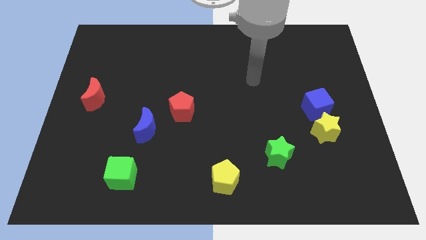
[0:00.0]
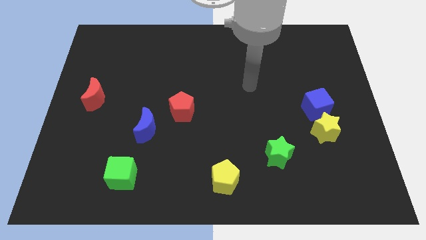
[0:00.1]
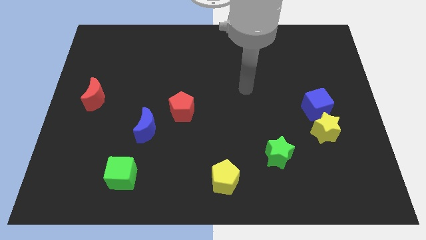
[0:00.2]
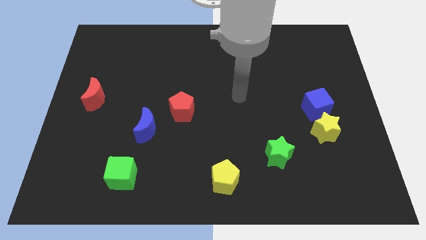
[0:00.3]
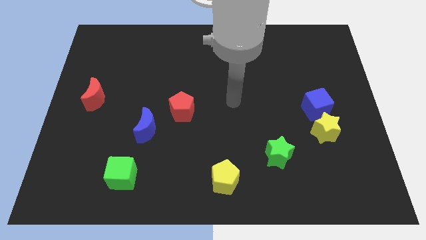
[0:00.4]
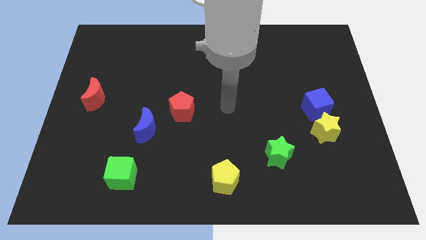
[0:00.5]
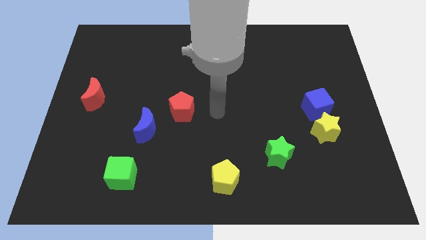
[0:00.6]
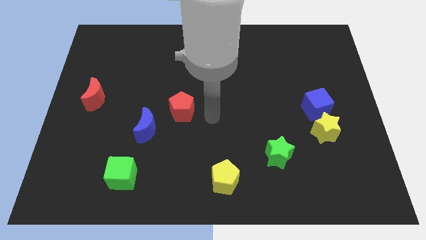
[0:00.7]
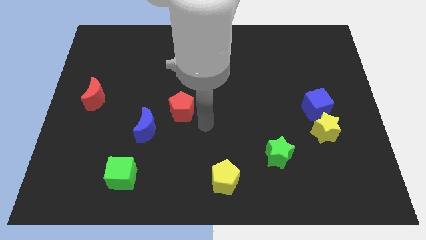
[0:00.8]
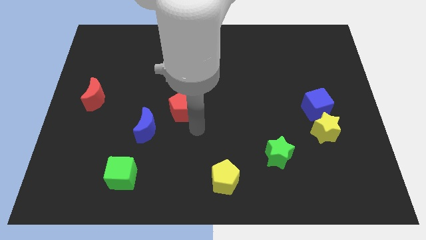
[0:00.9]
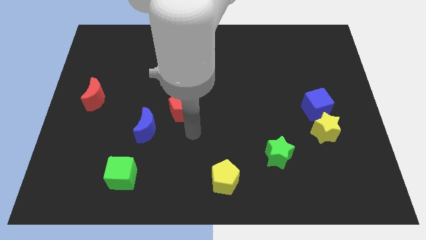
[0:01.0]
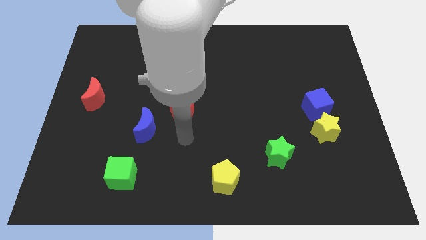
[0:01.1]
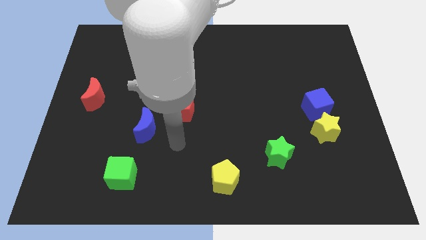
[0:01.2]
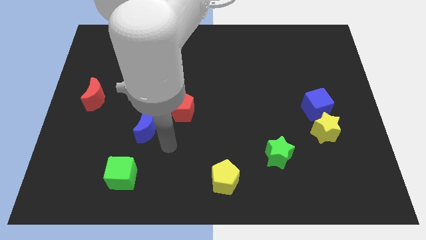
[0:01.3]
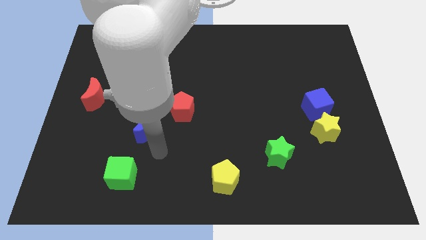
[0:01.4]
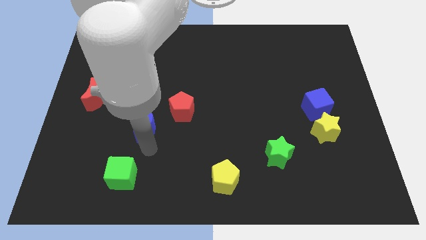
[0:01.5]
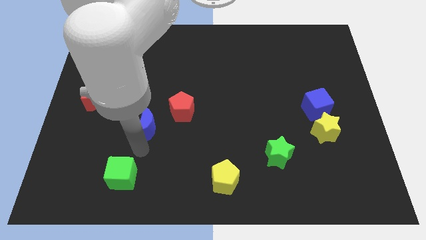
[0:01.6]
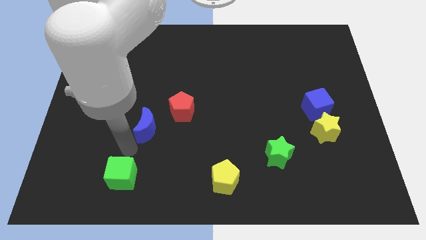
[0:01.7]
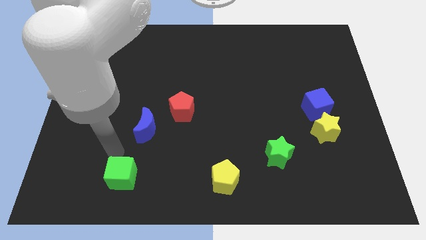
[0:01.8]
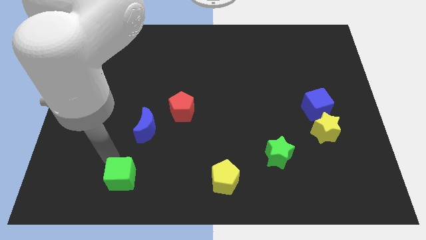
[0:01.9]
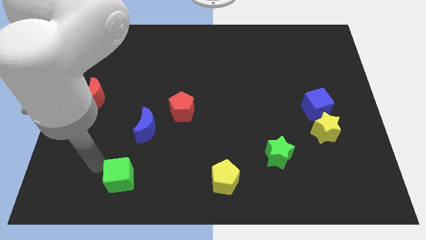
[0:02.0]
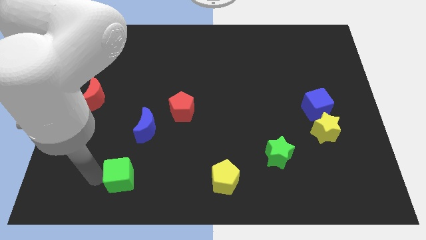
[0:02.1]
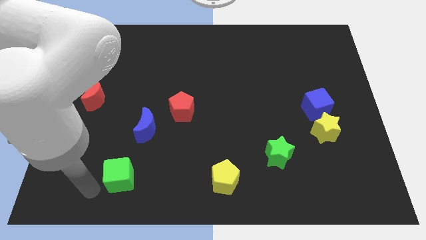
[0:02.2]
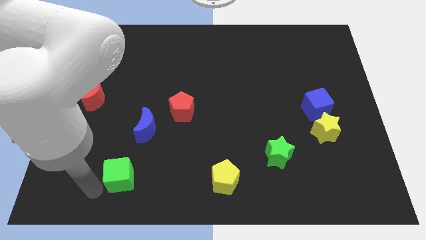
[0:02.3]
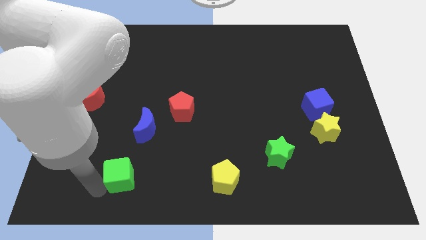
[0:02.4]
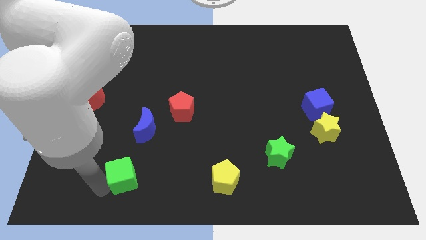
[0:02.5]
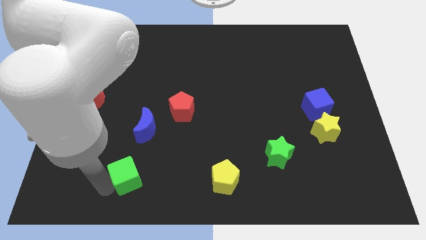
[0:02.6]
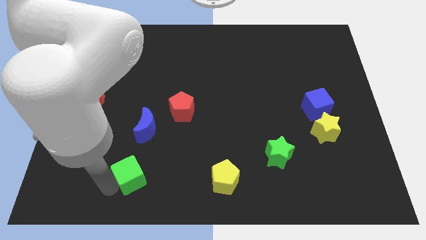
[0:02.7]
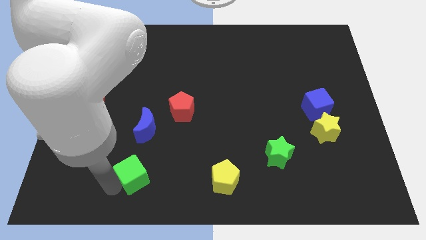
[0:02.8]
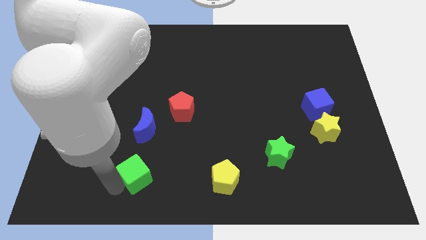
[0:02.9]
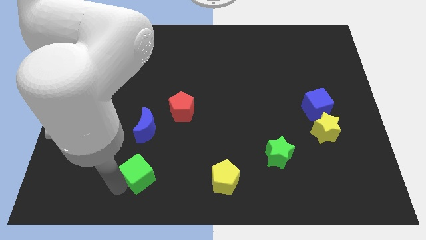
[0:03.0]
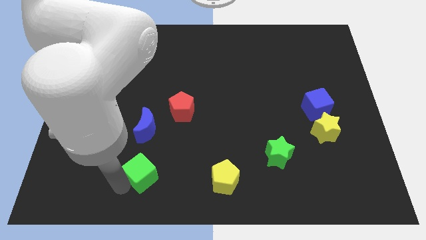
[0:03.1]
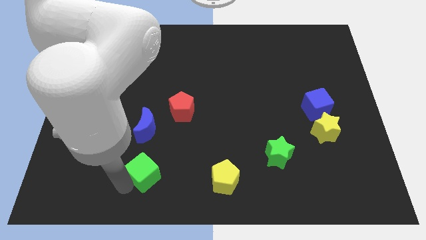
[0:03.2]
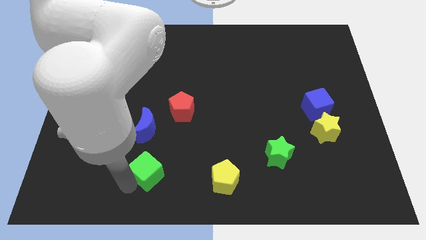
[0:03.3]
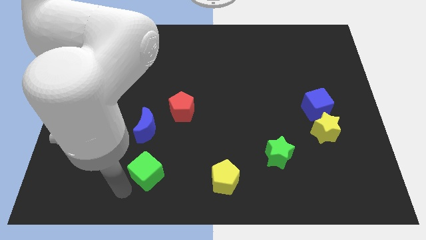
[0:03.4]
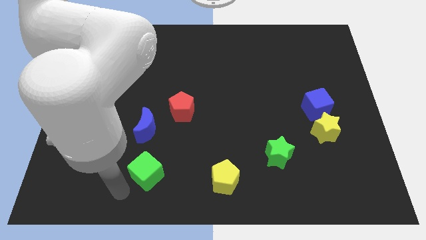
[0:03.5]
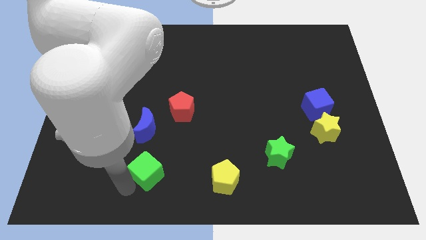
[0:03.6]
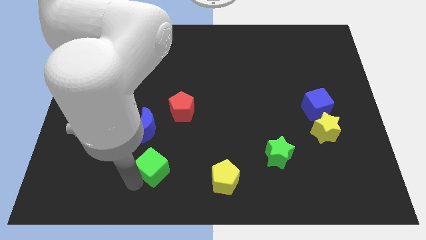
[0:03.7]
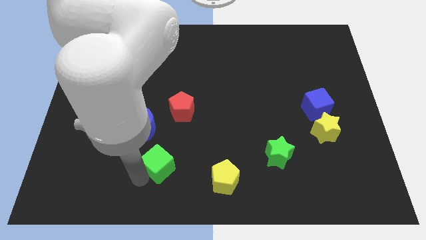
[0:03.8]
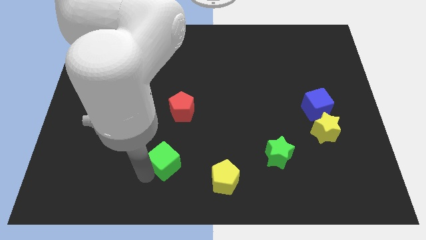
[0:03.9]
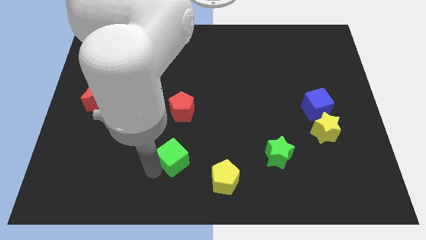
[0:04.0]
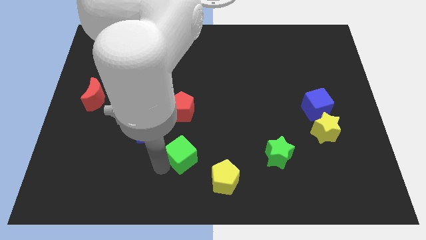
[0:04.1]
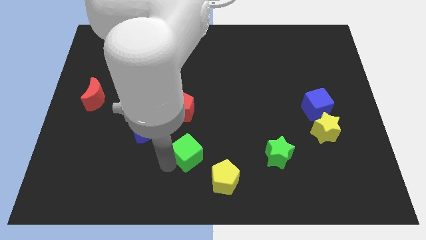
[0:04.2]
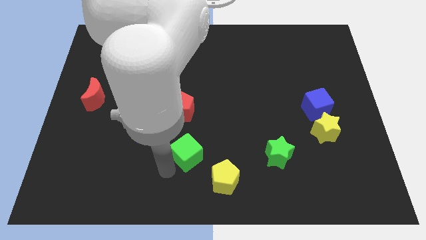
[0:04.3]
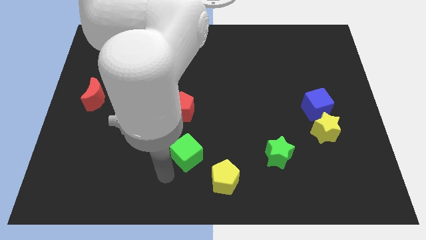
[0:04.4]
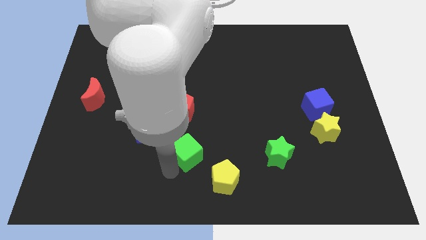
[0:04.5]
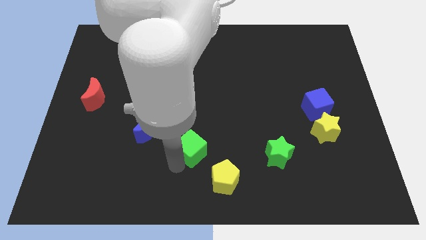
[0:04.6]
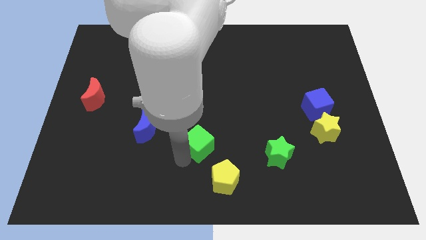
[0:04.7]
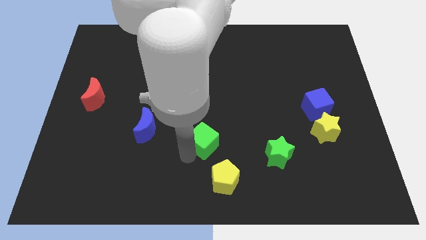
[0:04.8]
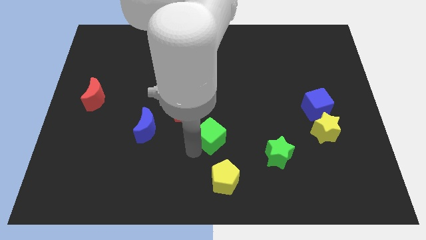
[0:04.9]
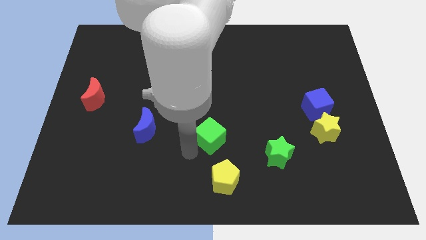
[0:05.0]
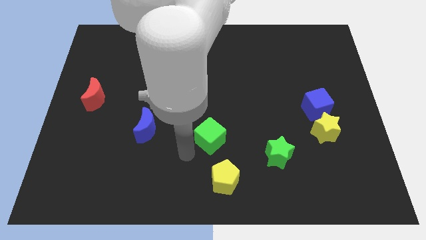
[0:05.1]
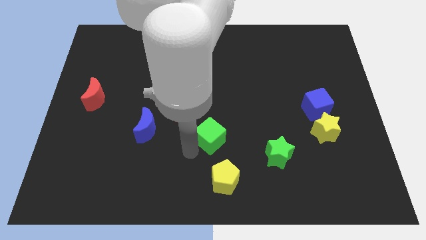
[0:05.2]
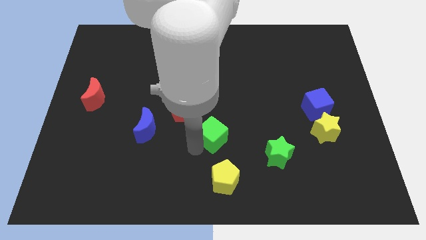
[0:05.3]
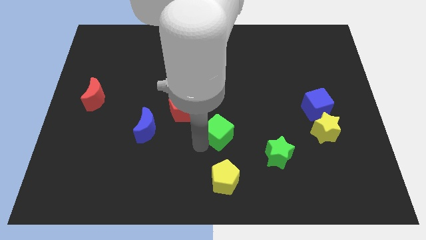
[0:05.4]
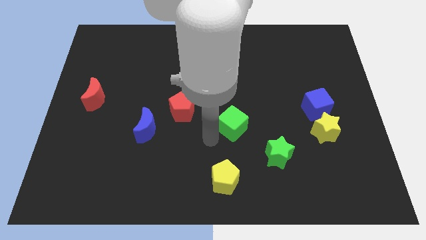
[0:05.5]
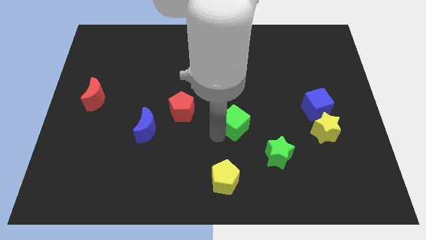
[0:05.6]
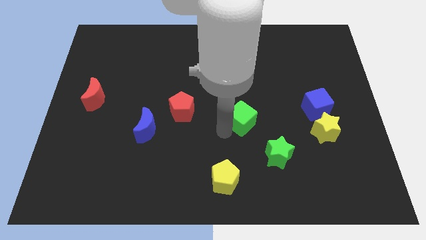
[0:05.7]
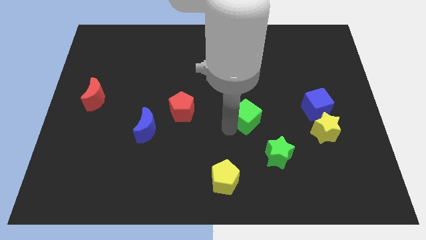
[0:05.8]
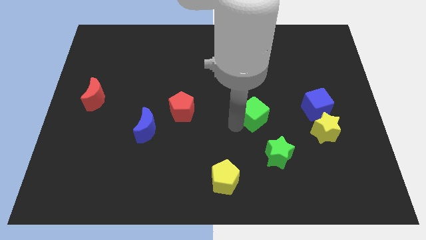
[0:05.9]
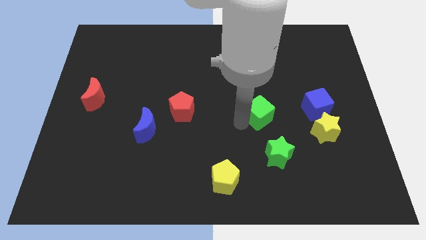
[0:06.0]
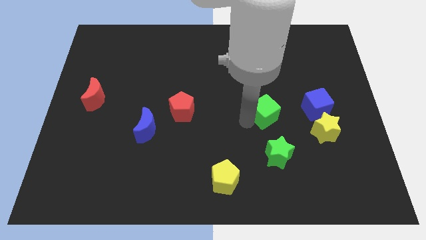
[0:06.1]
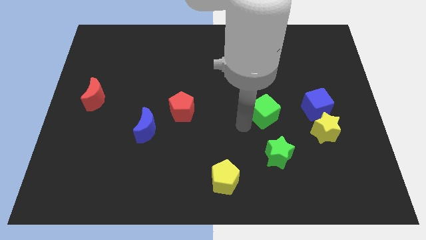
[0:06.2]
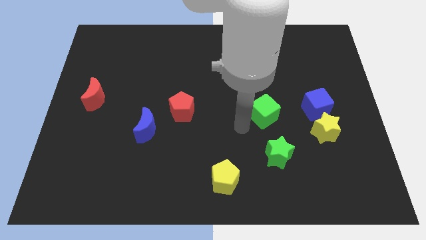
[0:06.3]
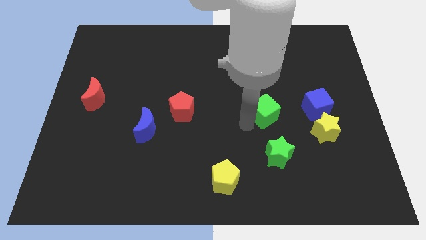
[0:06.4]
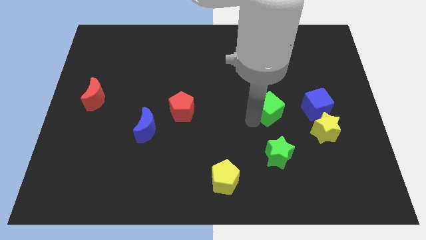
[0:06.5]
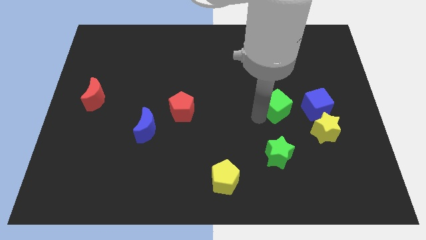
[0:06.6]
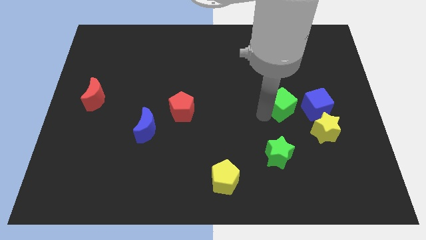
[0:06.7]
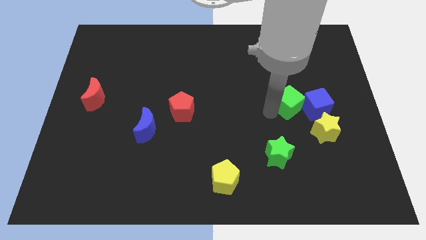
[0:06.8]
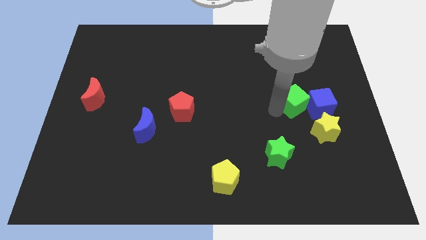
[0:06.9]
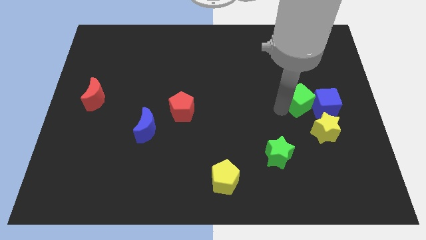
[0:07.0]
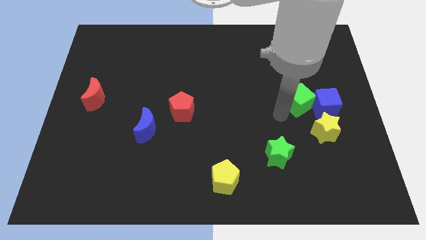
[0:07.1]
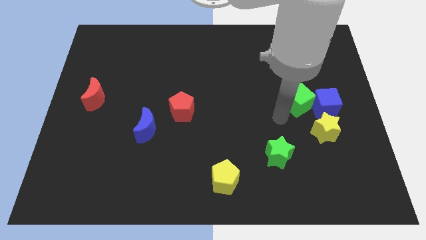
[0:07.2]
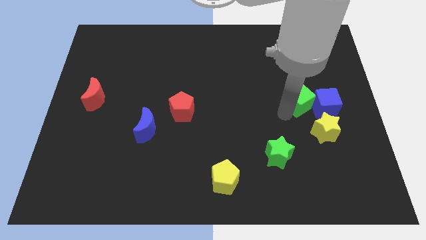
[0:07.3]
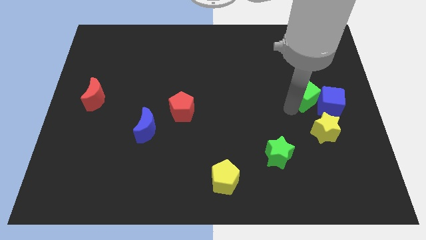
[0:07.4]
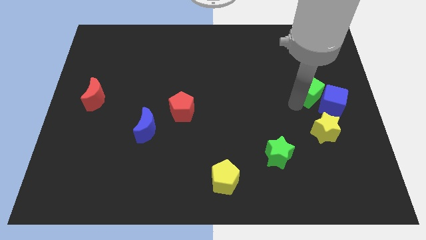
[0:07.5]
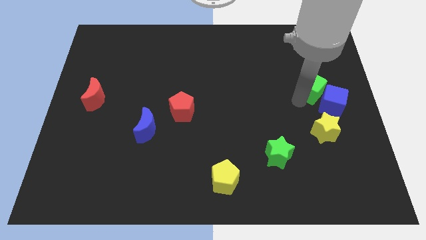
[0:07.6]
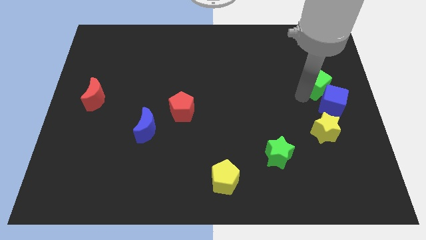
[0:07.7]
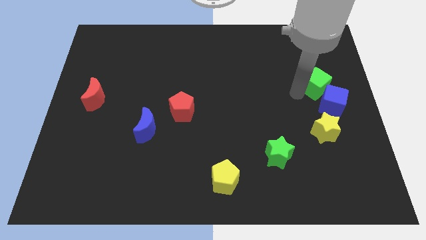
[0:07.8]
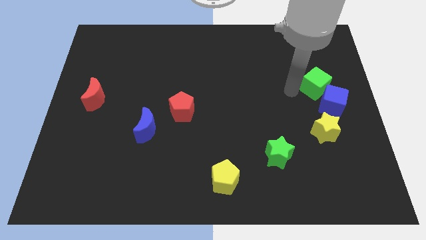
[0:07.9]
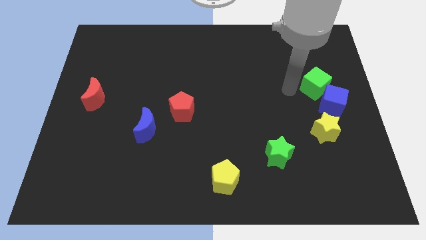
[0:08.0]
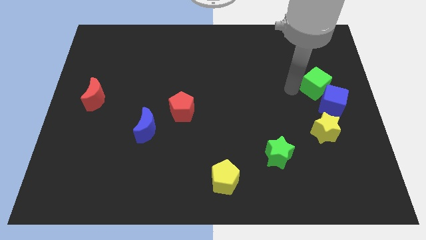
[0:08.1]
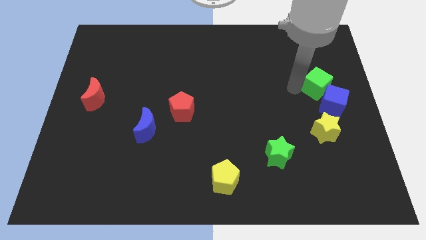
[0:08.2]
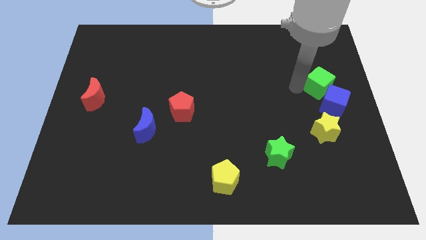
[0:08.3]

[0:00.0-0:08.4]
push the green cube to the right side
